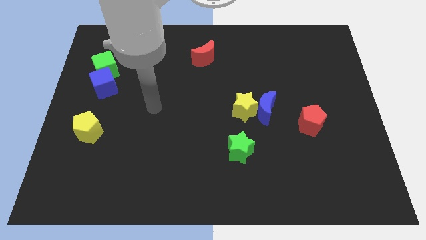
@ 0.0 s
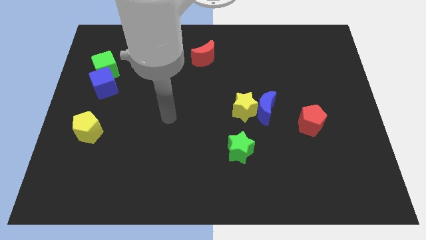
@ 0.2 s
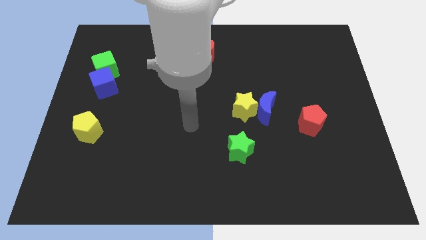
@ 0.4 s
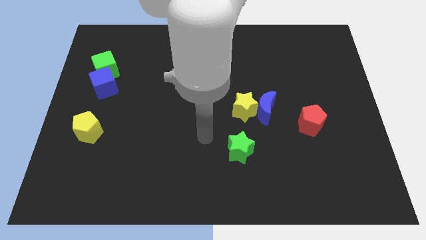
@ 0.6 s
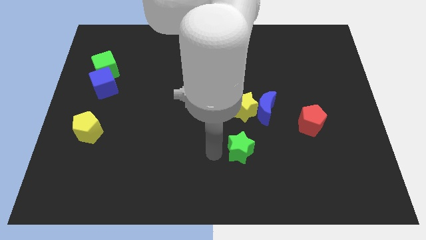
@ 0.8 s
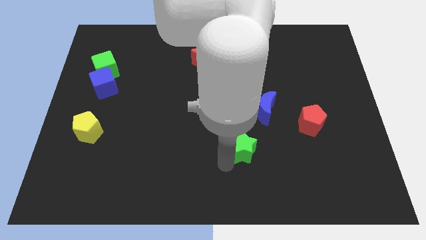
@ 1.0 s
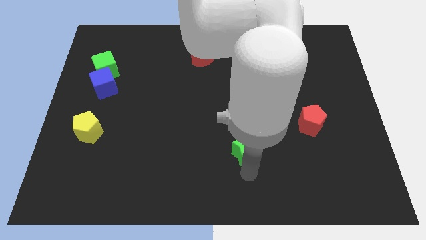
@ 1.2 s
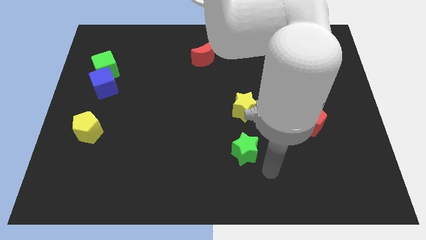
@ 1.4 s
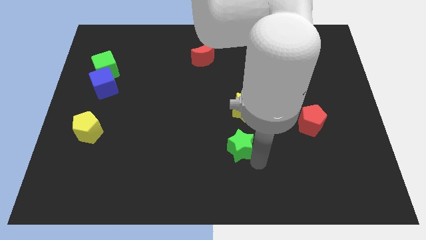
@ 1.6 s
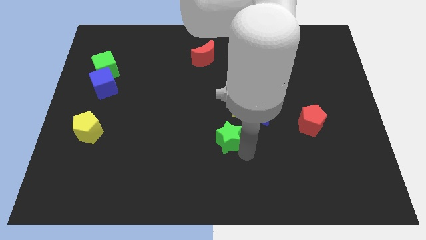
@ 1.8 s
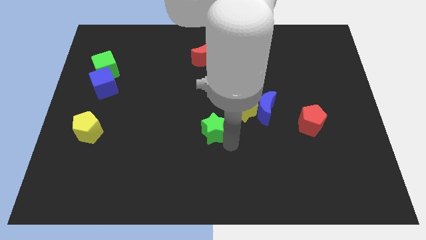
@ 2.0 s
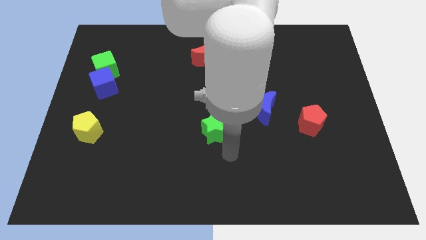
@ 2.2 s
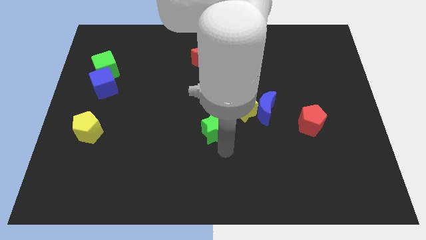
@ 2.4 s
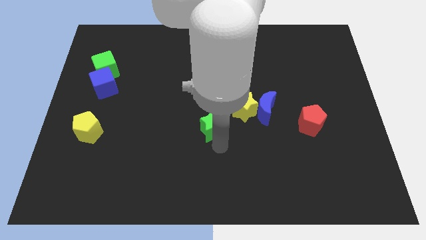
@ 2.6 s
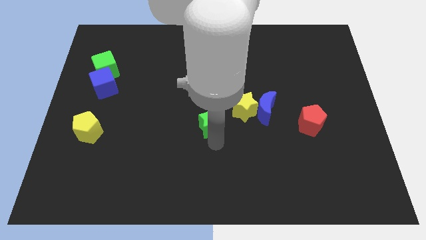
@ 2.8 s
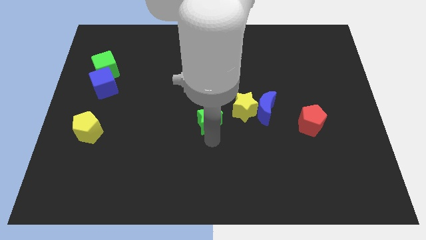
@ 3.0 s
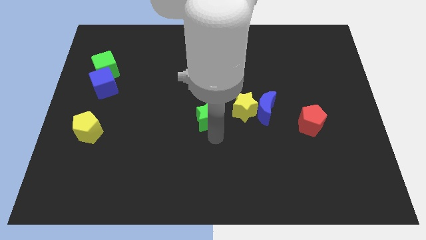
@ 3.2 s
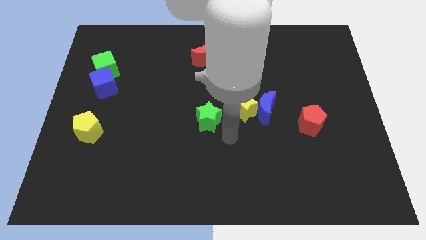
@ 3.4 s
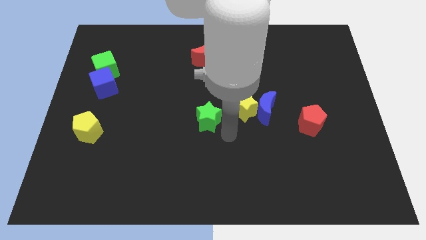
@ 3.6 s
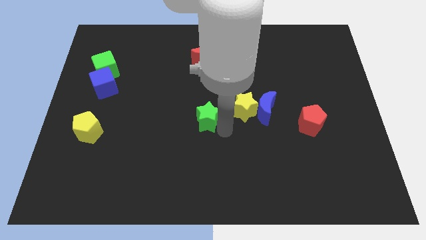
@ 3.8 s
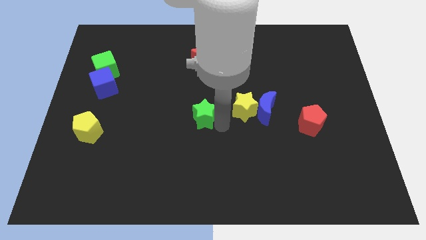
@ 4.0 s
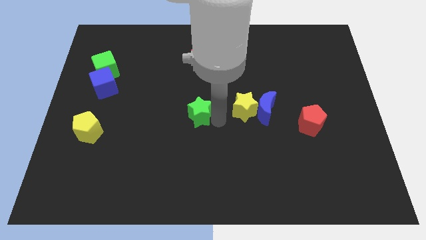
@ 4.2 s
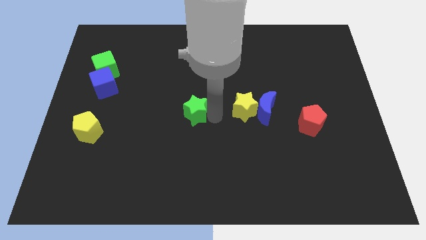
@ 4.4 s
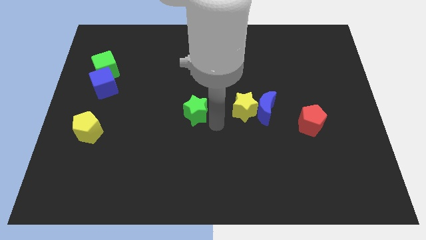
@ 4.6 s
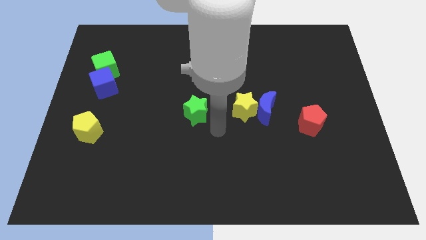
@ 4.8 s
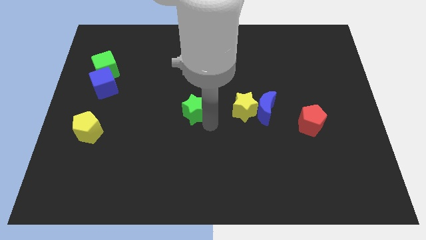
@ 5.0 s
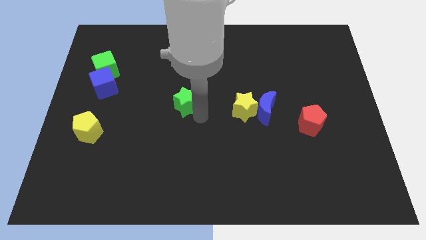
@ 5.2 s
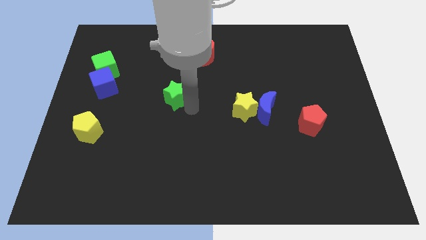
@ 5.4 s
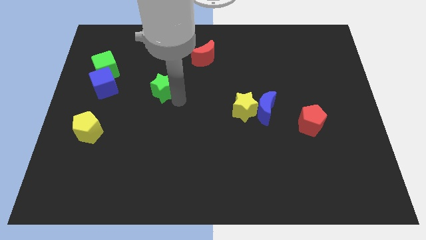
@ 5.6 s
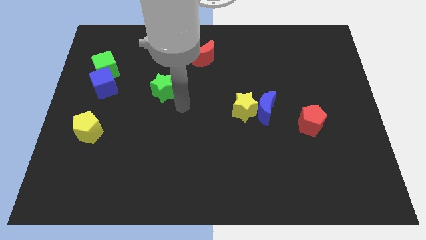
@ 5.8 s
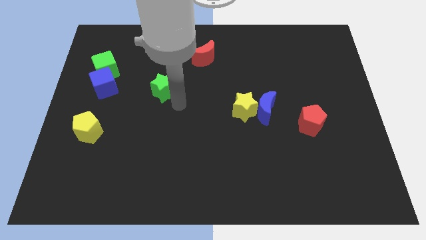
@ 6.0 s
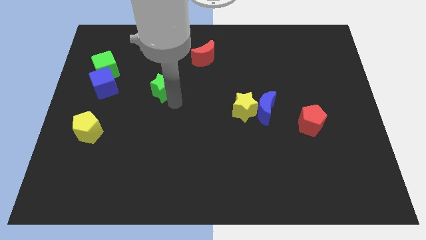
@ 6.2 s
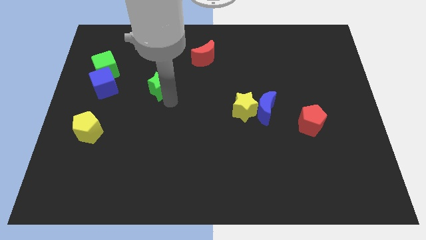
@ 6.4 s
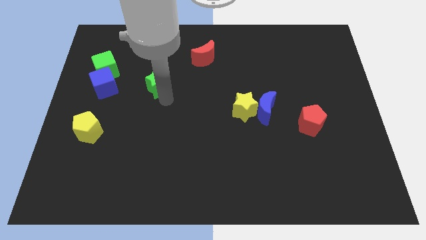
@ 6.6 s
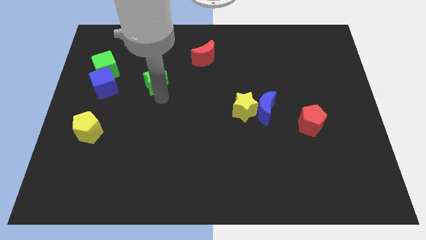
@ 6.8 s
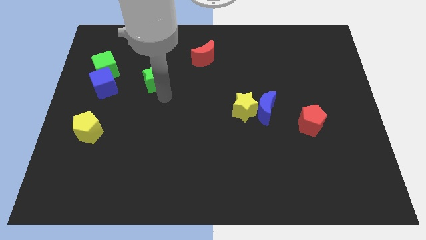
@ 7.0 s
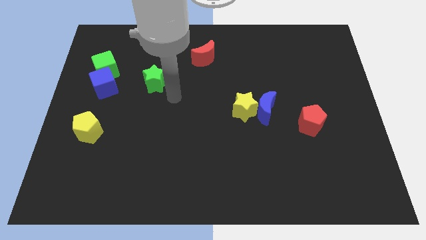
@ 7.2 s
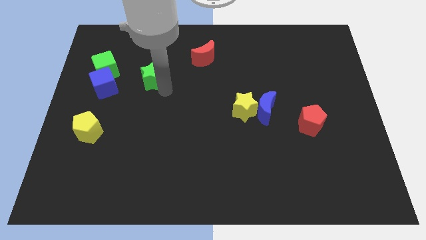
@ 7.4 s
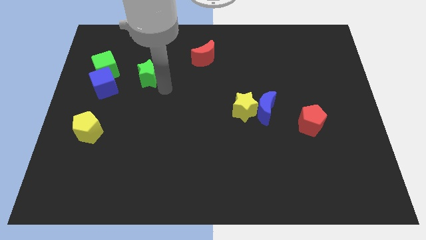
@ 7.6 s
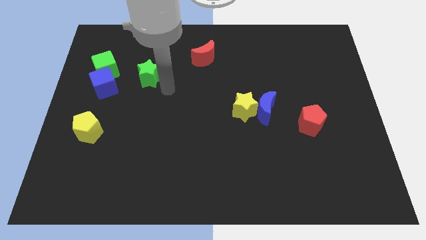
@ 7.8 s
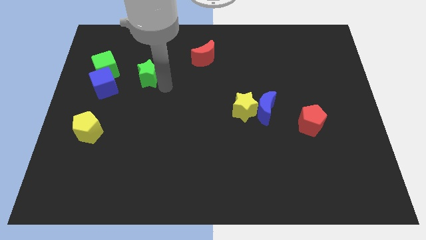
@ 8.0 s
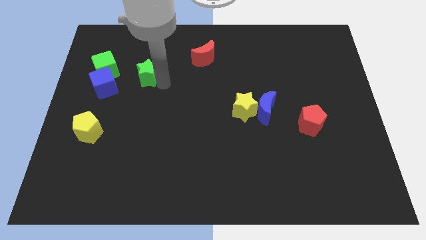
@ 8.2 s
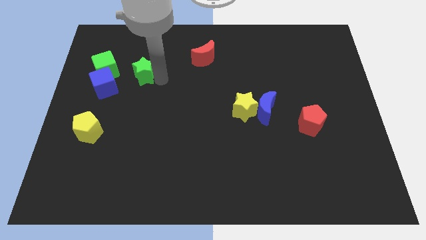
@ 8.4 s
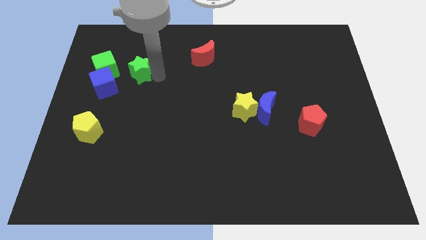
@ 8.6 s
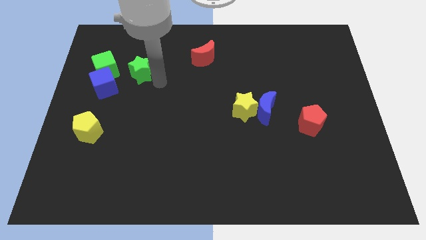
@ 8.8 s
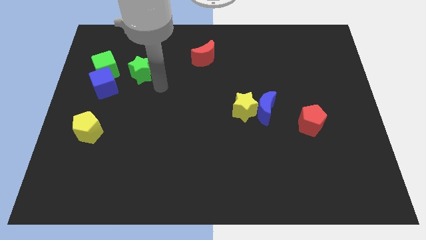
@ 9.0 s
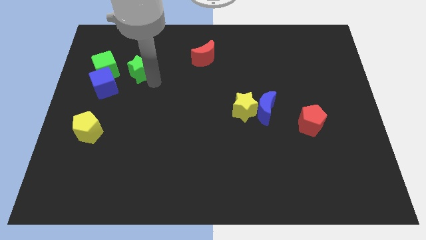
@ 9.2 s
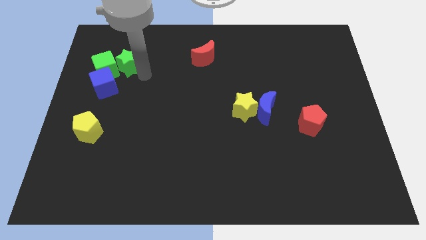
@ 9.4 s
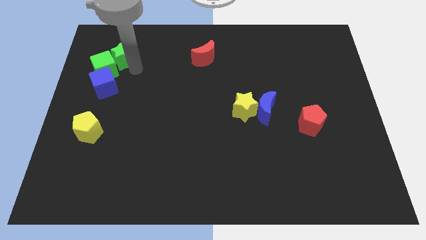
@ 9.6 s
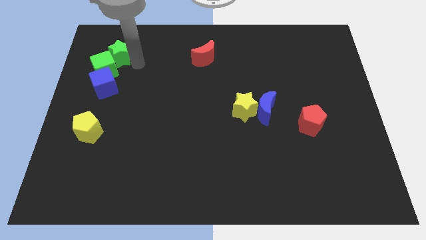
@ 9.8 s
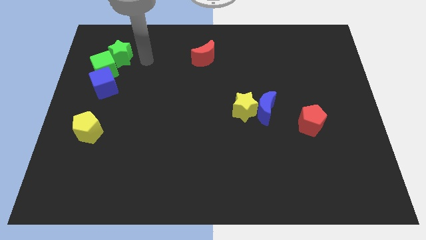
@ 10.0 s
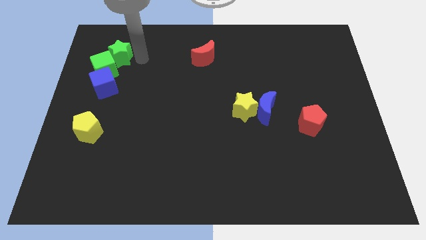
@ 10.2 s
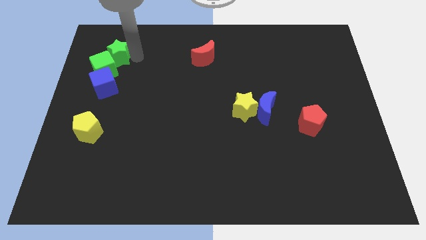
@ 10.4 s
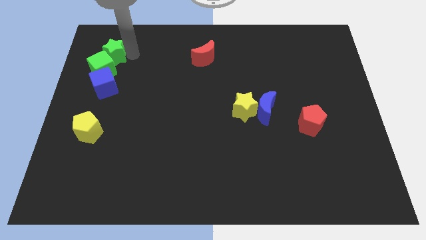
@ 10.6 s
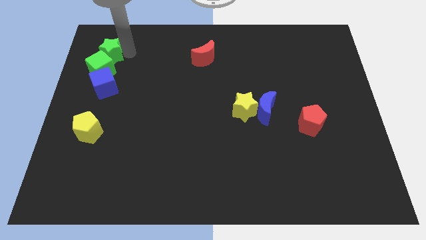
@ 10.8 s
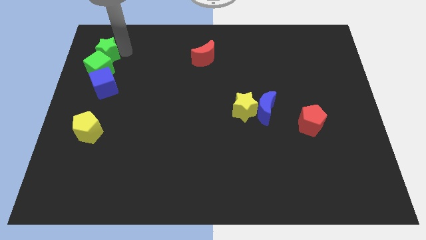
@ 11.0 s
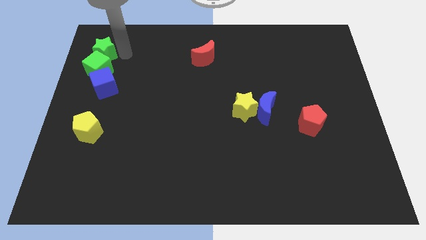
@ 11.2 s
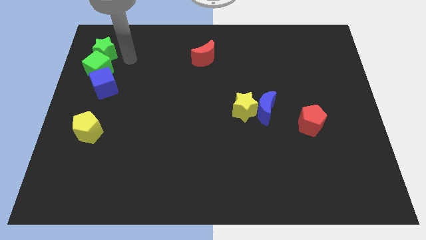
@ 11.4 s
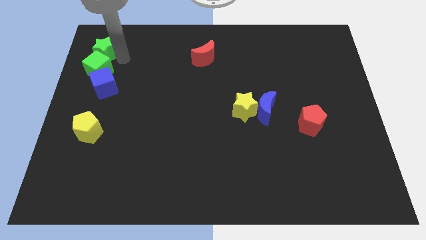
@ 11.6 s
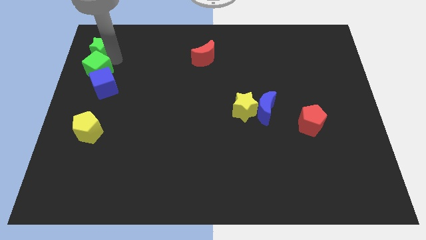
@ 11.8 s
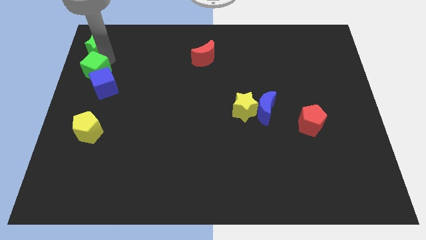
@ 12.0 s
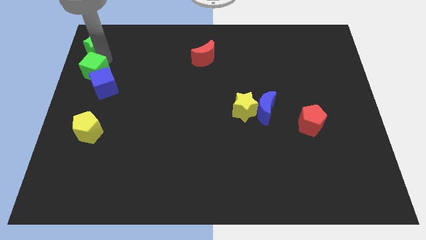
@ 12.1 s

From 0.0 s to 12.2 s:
move the green star to the top left corner

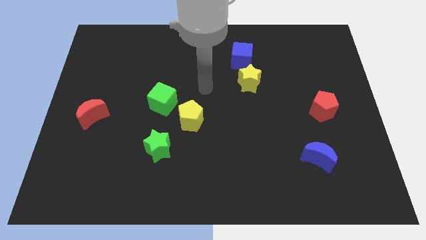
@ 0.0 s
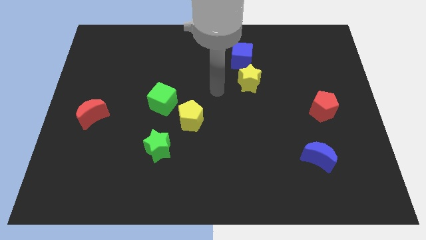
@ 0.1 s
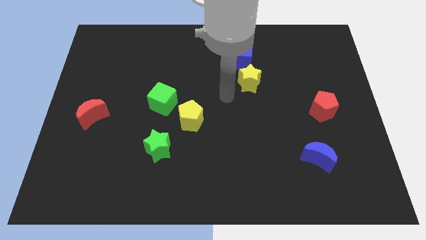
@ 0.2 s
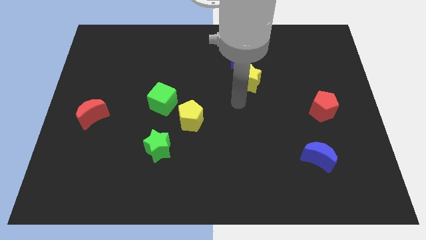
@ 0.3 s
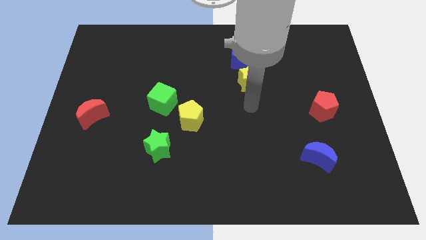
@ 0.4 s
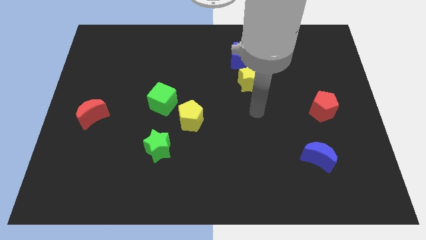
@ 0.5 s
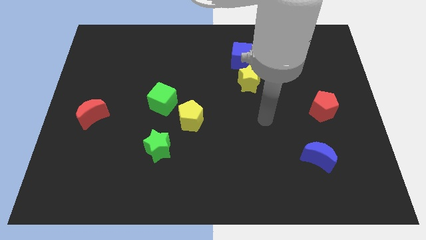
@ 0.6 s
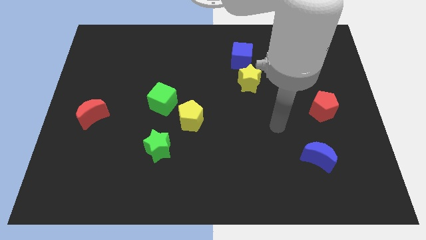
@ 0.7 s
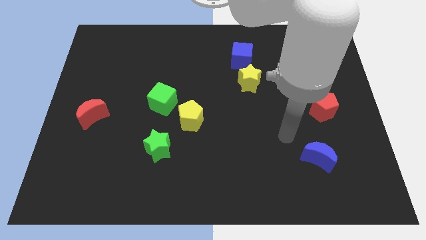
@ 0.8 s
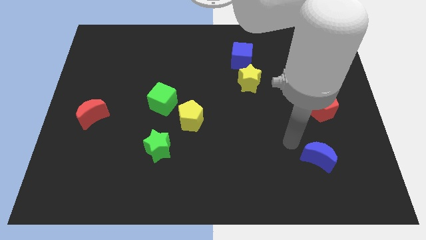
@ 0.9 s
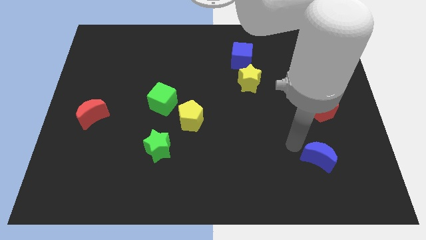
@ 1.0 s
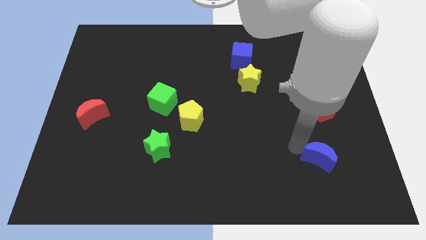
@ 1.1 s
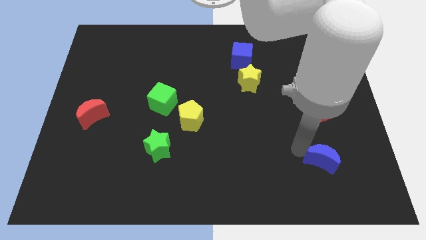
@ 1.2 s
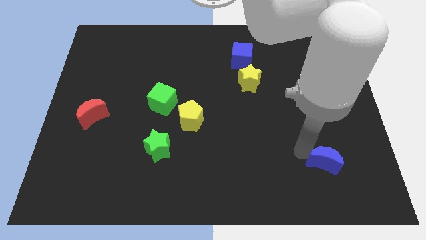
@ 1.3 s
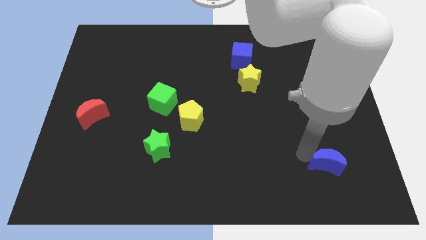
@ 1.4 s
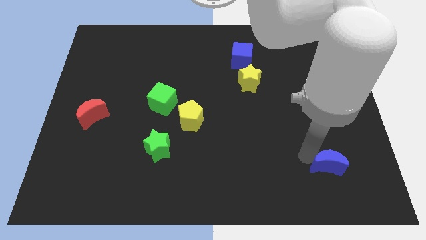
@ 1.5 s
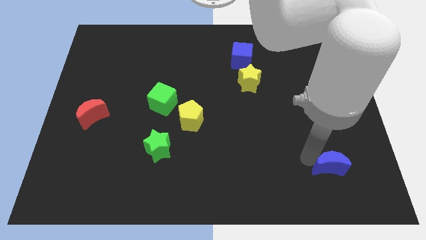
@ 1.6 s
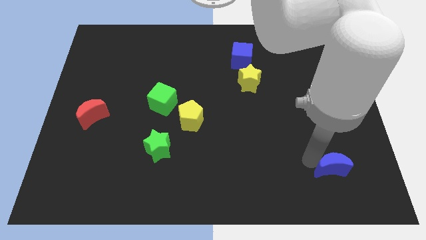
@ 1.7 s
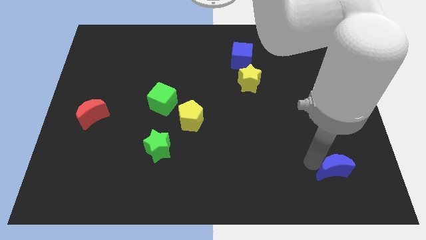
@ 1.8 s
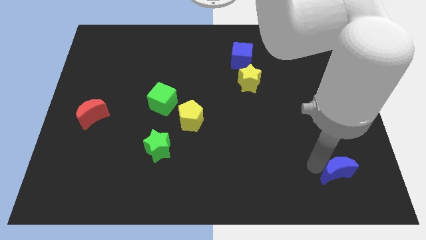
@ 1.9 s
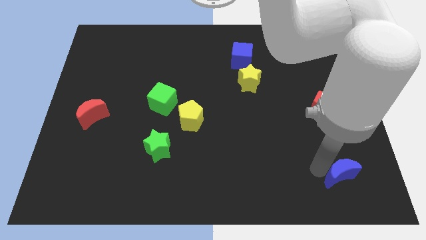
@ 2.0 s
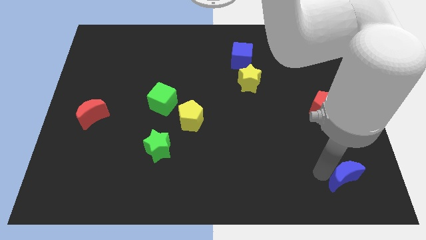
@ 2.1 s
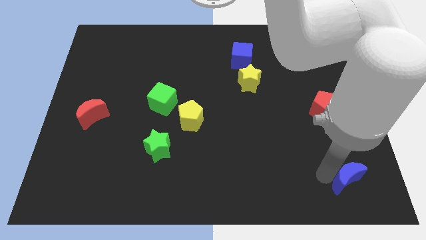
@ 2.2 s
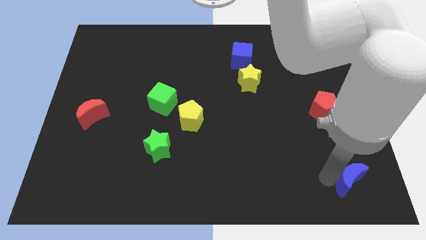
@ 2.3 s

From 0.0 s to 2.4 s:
move the blue moon to the bottom right
